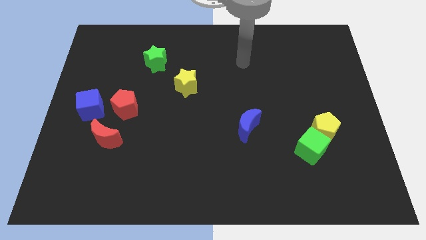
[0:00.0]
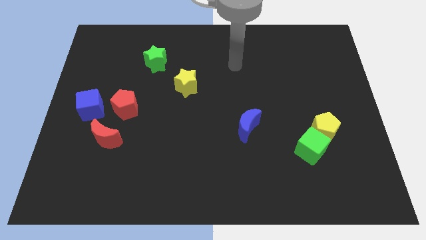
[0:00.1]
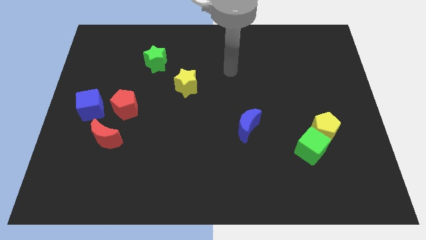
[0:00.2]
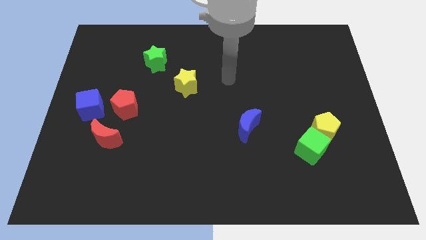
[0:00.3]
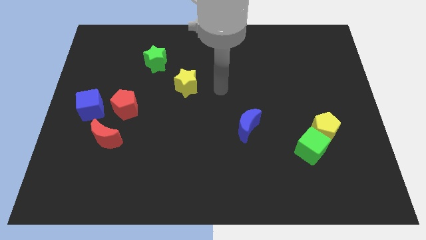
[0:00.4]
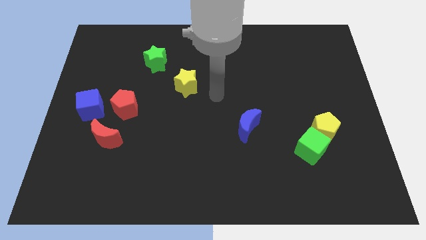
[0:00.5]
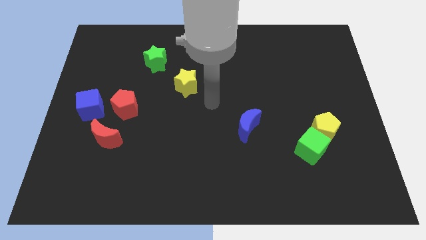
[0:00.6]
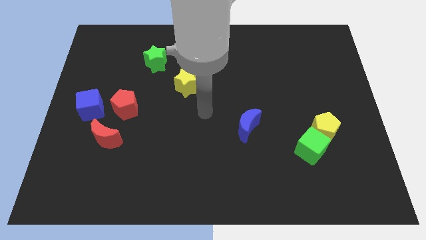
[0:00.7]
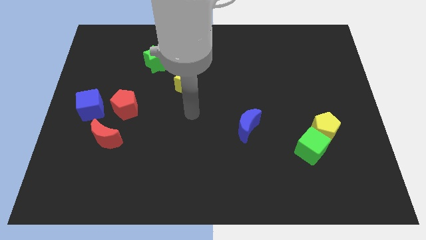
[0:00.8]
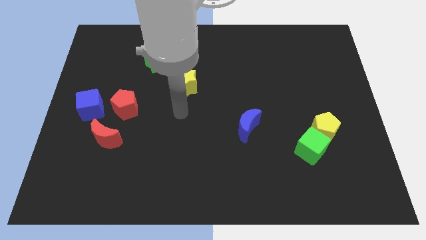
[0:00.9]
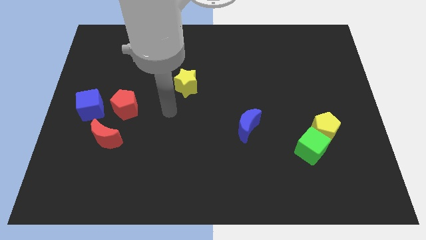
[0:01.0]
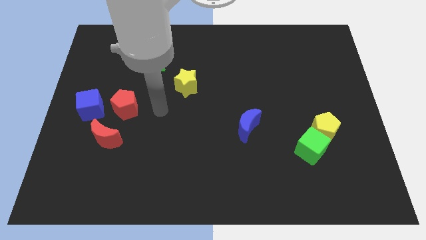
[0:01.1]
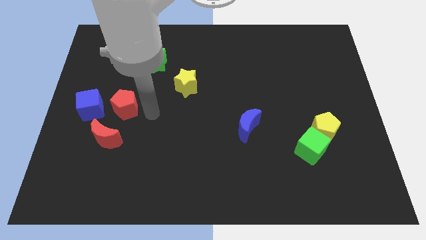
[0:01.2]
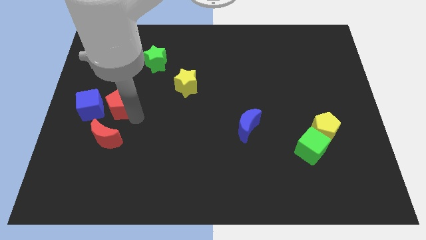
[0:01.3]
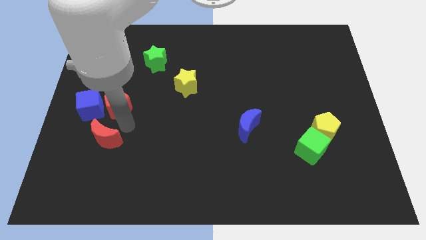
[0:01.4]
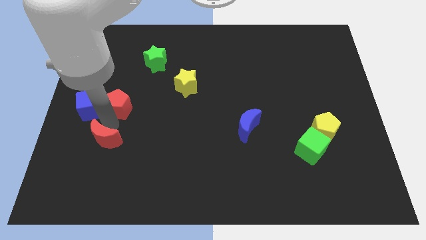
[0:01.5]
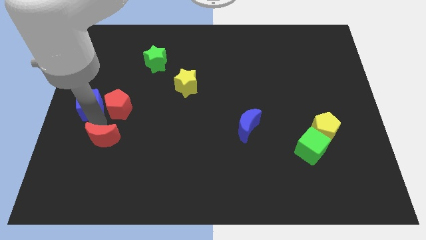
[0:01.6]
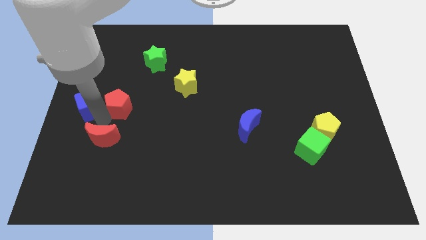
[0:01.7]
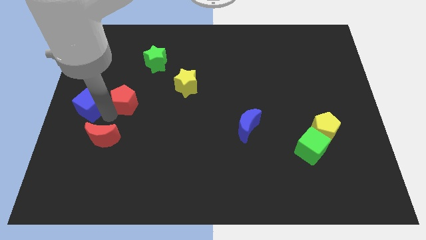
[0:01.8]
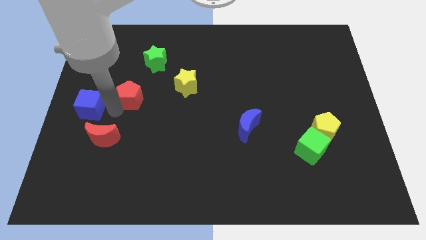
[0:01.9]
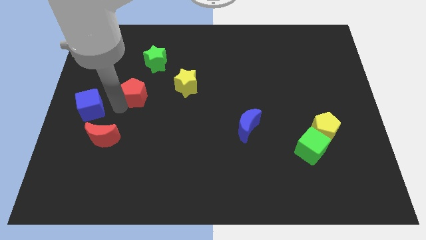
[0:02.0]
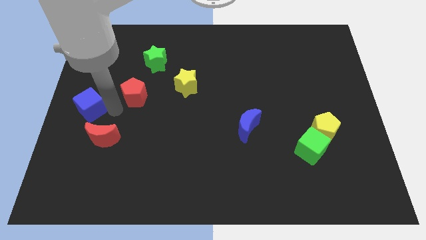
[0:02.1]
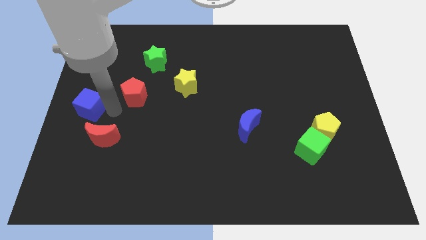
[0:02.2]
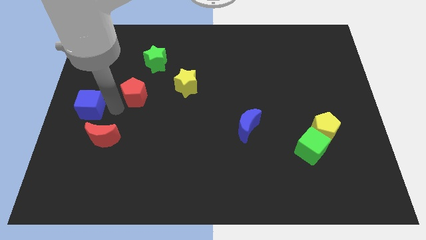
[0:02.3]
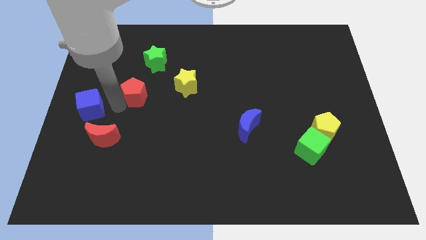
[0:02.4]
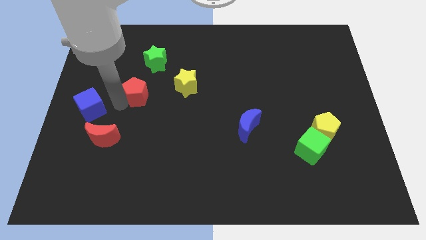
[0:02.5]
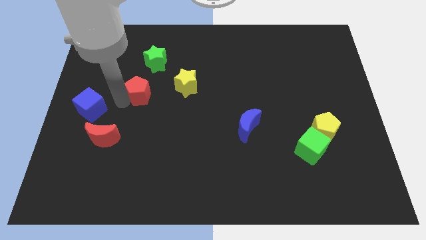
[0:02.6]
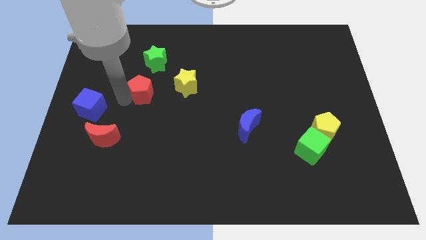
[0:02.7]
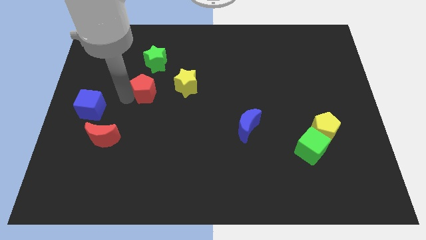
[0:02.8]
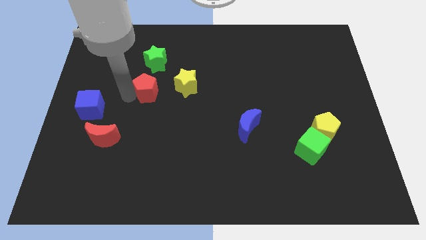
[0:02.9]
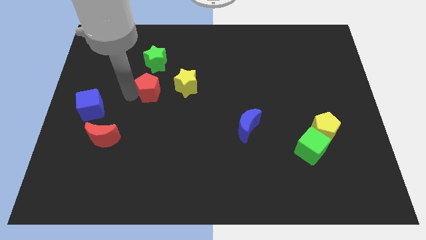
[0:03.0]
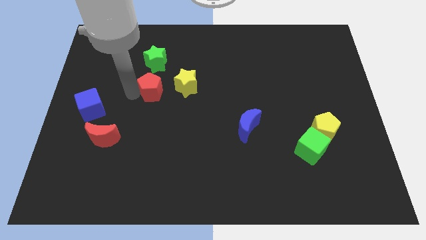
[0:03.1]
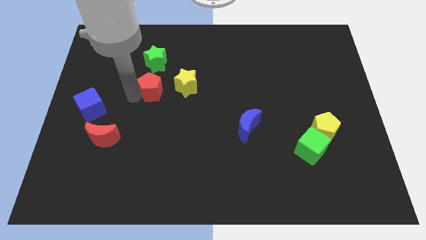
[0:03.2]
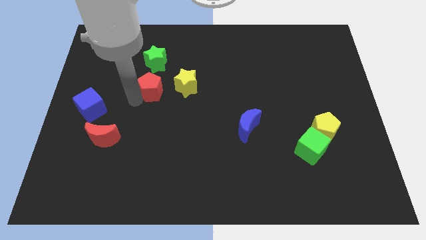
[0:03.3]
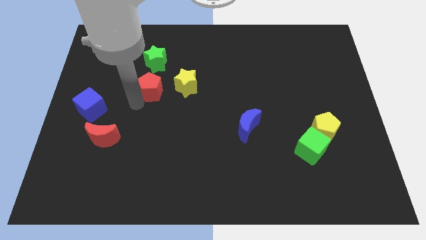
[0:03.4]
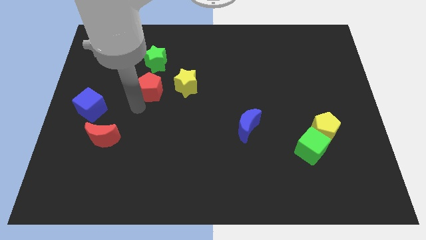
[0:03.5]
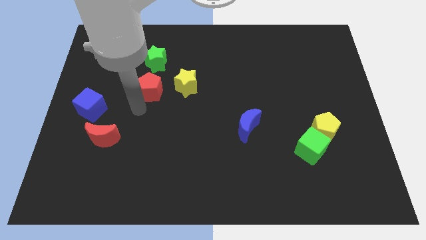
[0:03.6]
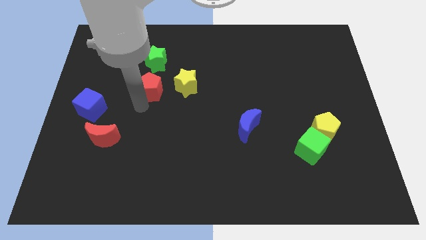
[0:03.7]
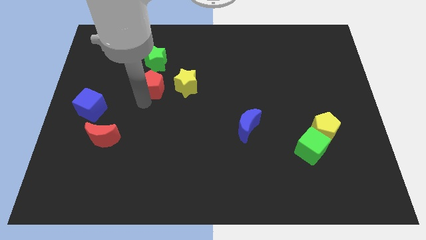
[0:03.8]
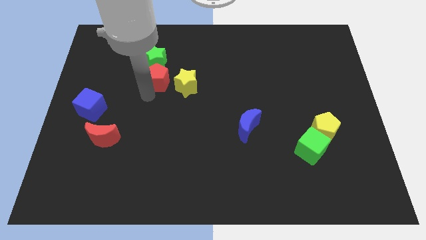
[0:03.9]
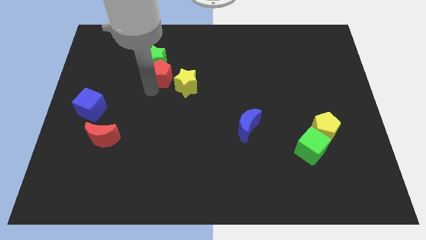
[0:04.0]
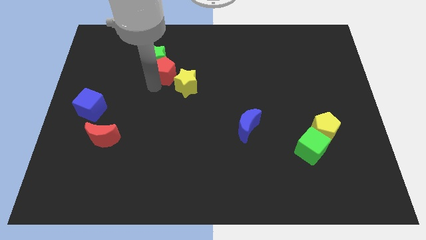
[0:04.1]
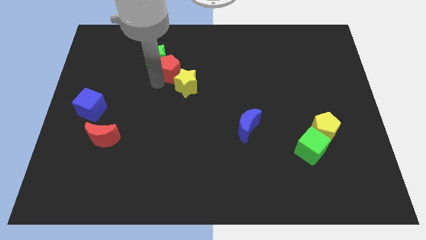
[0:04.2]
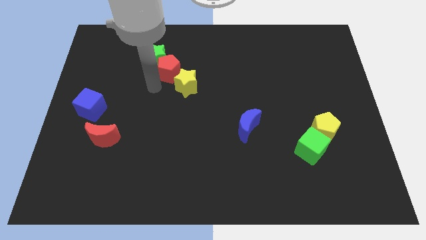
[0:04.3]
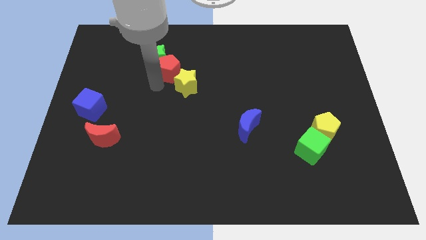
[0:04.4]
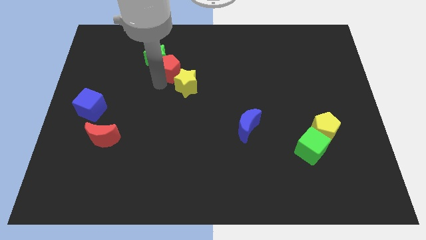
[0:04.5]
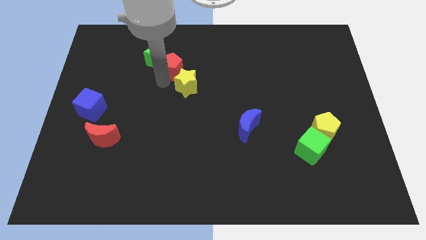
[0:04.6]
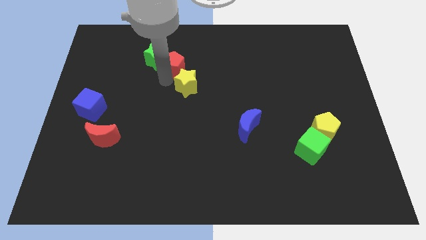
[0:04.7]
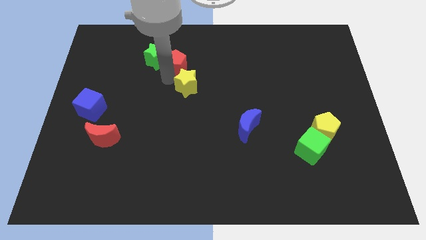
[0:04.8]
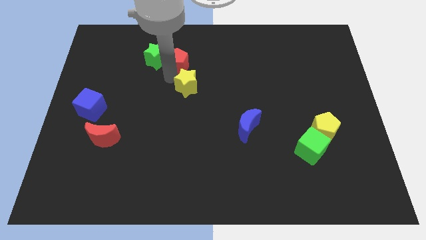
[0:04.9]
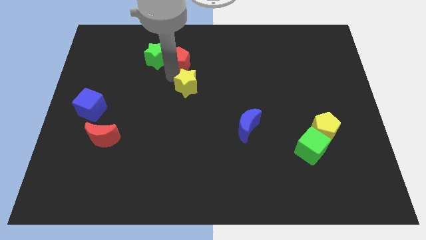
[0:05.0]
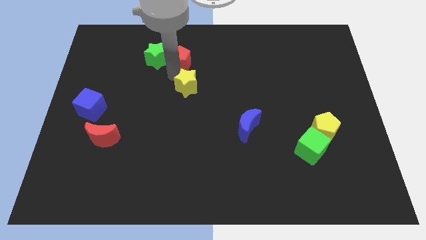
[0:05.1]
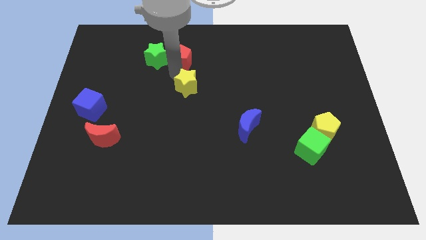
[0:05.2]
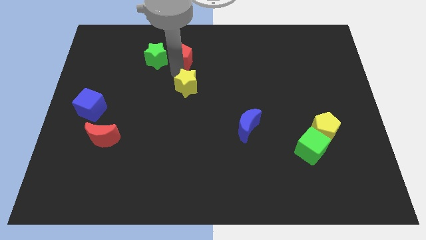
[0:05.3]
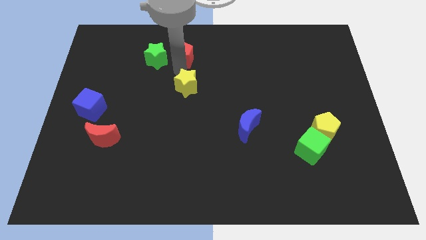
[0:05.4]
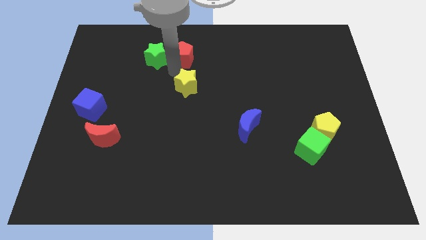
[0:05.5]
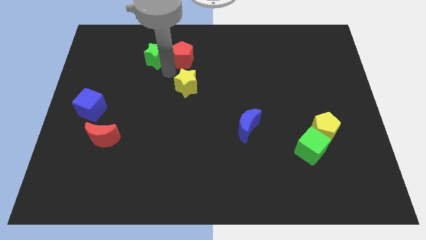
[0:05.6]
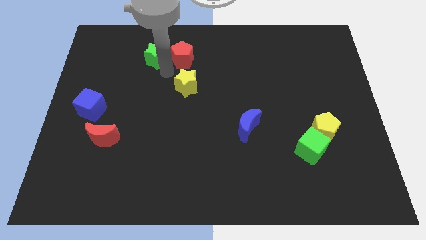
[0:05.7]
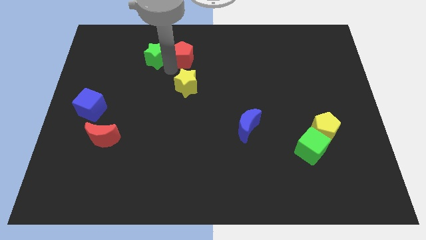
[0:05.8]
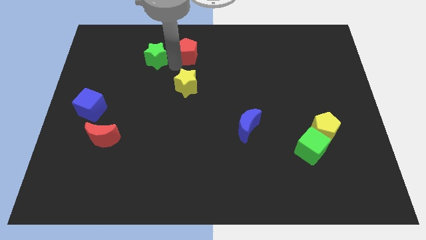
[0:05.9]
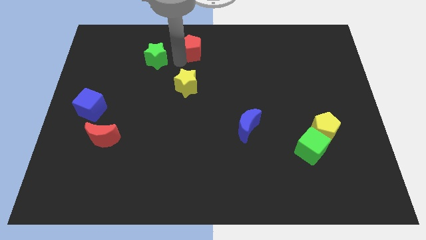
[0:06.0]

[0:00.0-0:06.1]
put the red pentagon to the towards your base

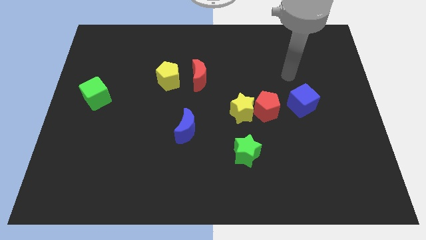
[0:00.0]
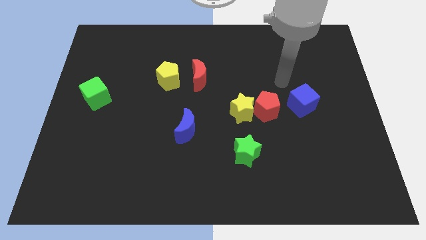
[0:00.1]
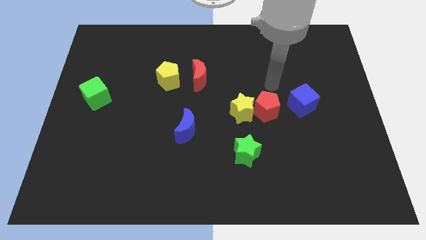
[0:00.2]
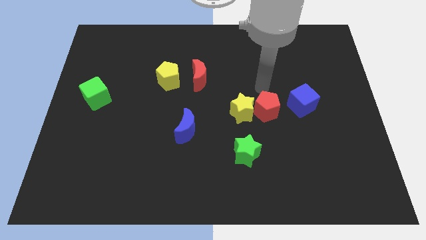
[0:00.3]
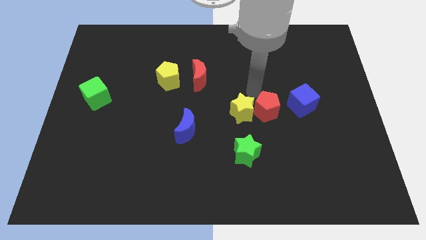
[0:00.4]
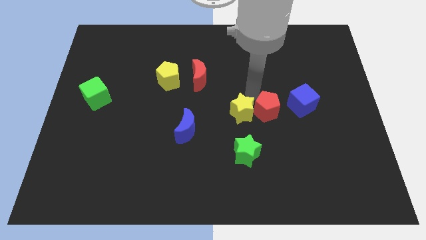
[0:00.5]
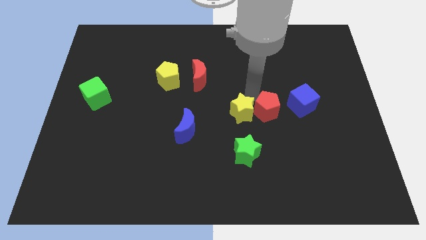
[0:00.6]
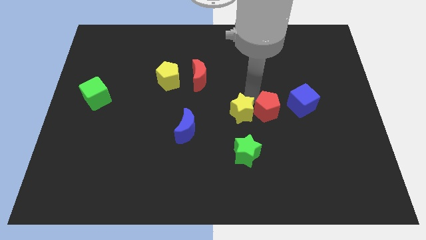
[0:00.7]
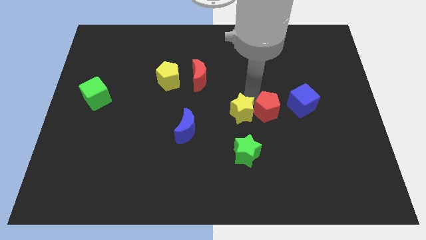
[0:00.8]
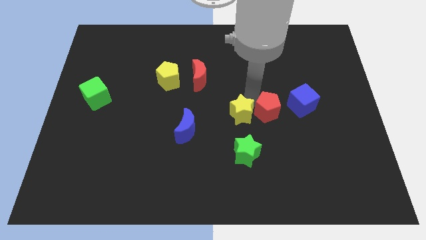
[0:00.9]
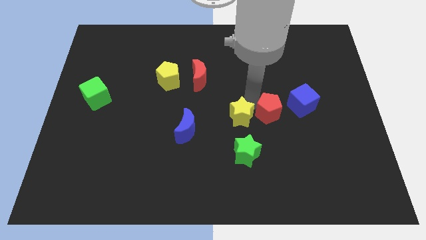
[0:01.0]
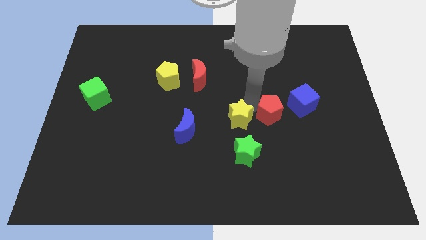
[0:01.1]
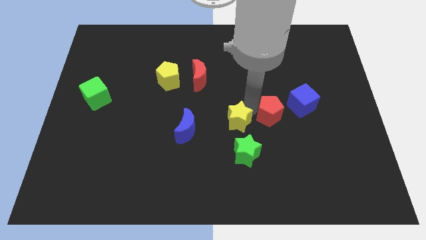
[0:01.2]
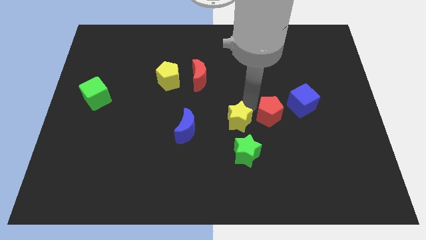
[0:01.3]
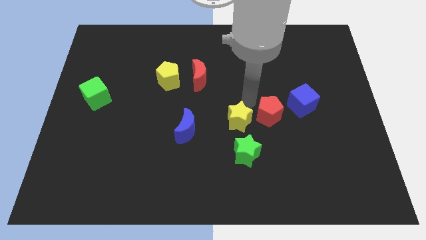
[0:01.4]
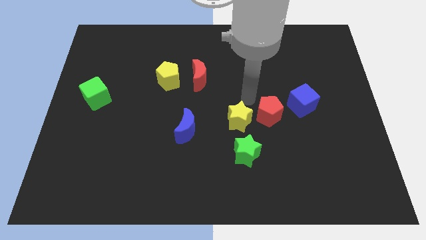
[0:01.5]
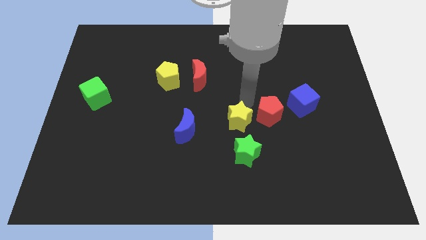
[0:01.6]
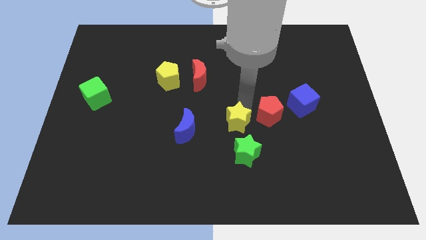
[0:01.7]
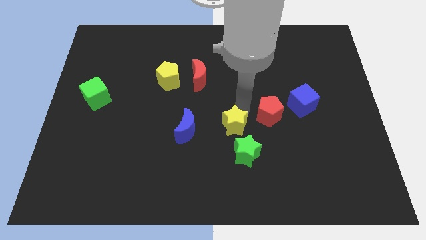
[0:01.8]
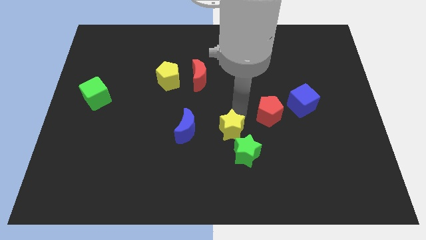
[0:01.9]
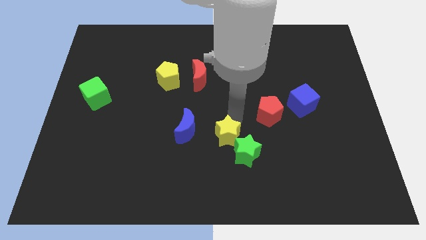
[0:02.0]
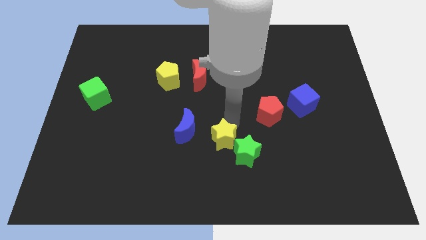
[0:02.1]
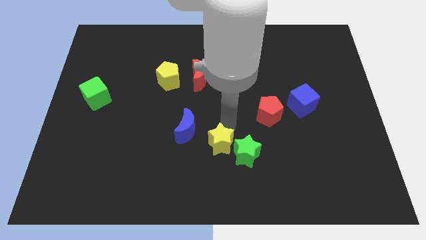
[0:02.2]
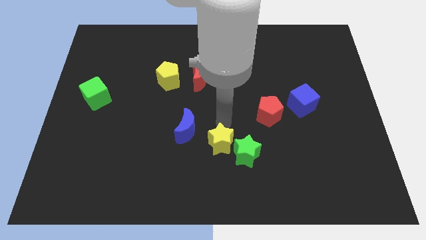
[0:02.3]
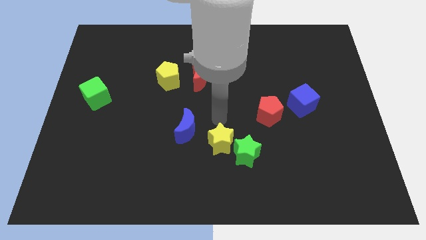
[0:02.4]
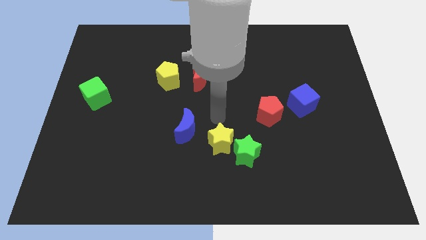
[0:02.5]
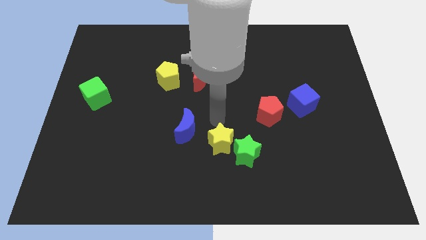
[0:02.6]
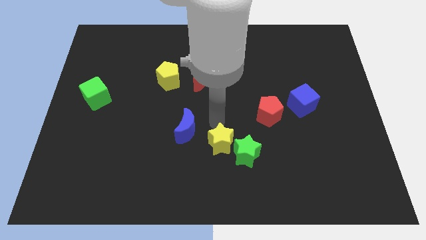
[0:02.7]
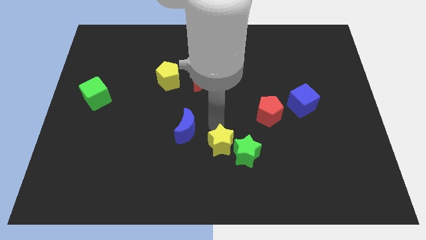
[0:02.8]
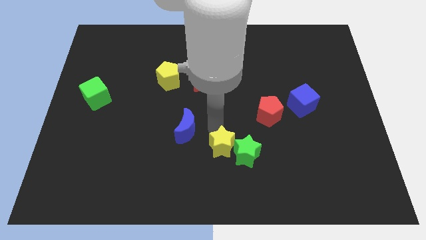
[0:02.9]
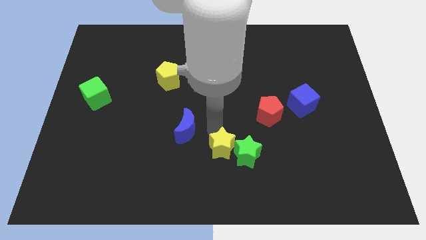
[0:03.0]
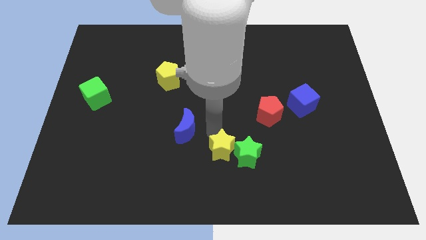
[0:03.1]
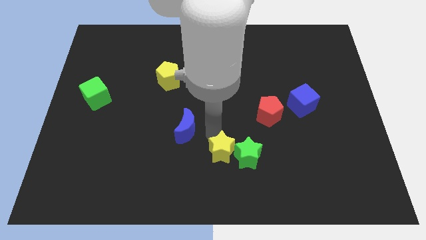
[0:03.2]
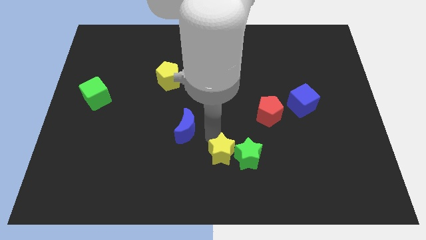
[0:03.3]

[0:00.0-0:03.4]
move the yellow star to the bottom side
